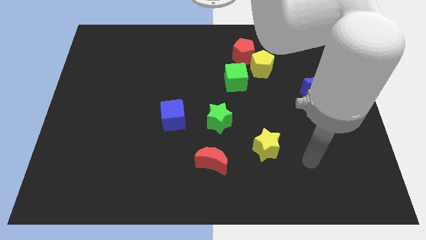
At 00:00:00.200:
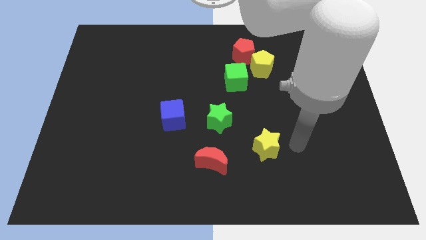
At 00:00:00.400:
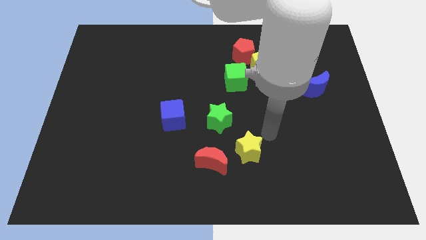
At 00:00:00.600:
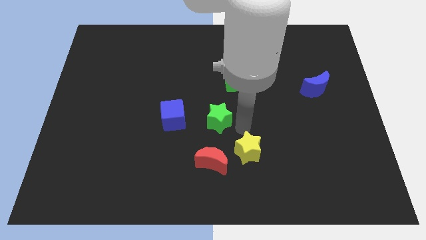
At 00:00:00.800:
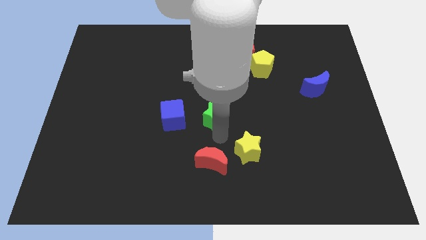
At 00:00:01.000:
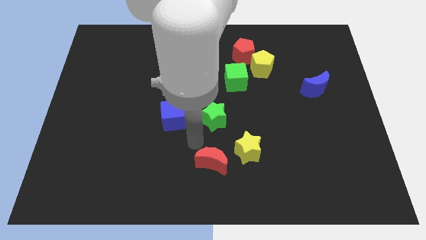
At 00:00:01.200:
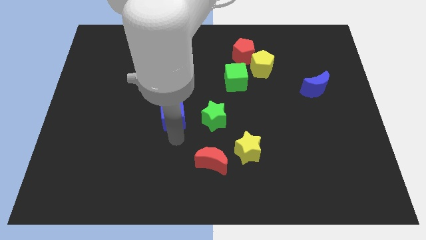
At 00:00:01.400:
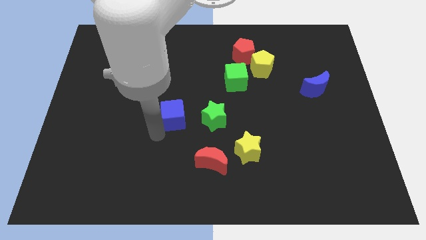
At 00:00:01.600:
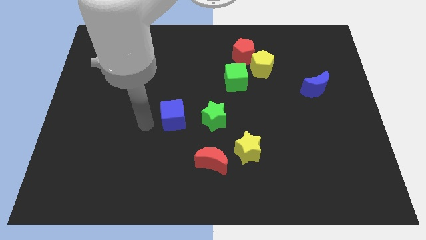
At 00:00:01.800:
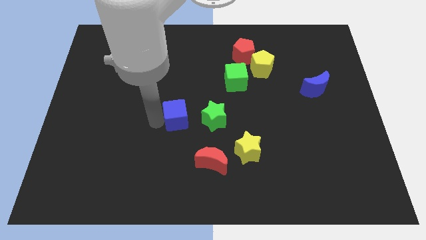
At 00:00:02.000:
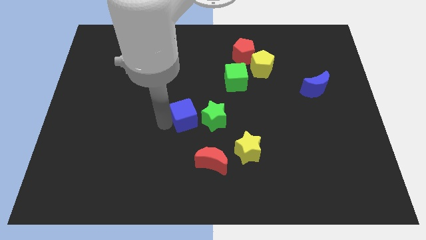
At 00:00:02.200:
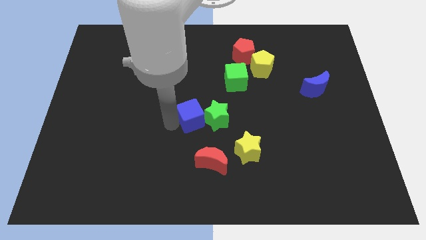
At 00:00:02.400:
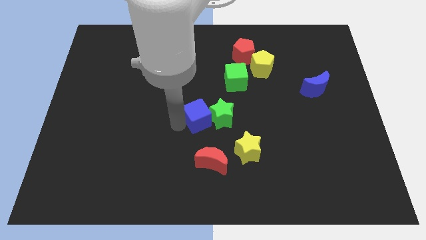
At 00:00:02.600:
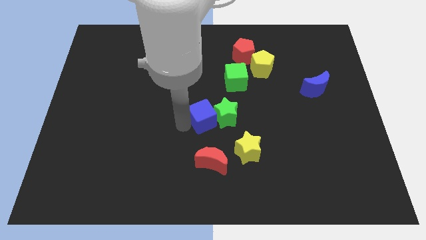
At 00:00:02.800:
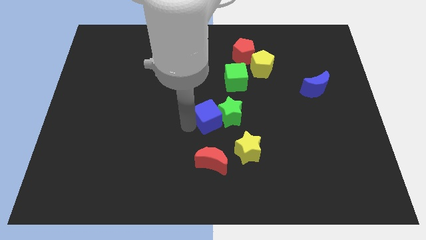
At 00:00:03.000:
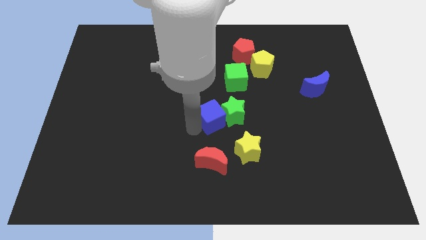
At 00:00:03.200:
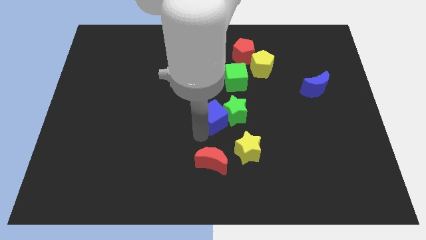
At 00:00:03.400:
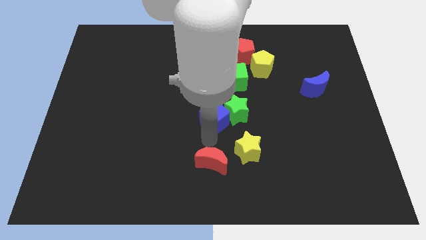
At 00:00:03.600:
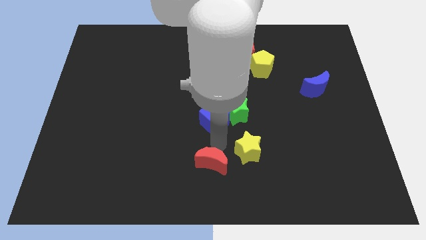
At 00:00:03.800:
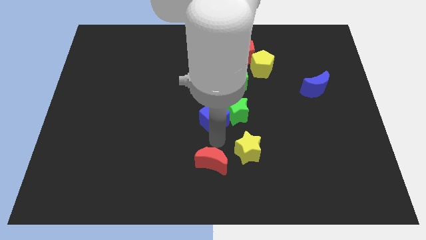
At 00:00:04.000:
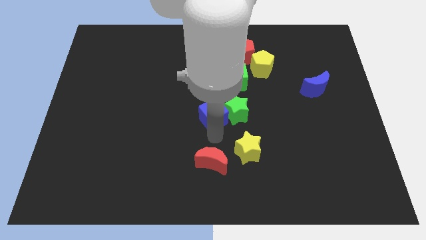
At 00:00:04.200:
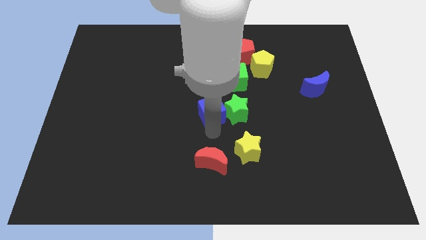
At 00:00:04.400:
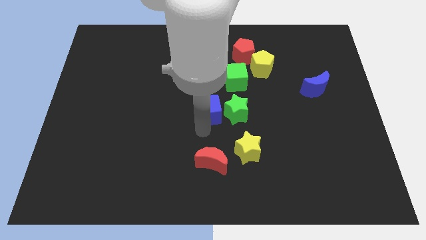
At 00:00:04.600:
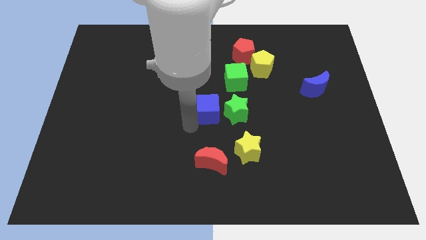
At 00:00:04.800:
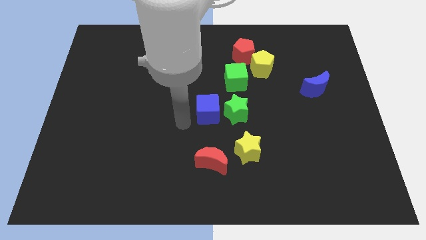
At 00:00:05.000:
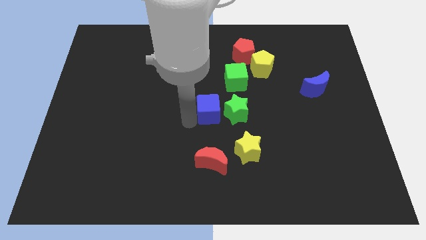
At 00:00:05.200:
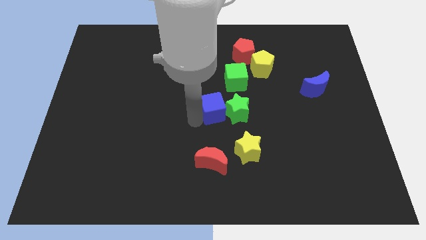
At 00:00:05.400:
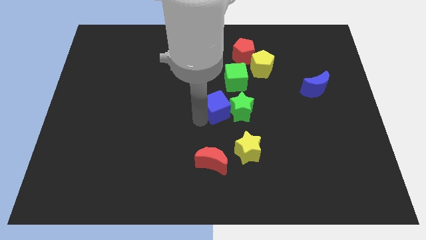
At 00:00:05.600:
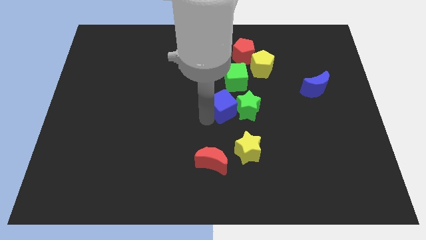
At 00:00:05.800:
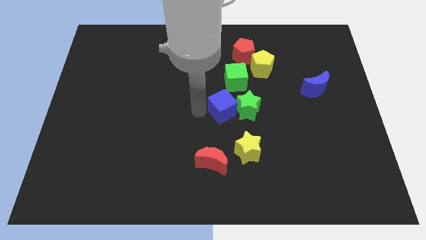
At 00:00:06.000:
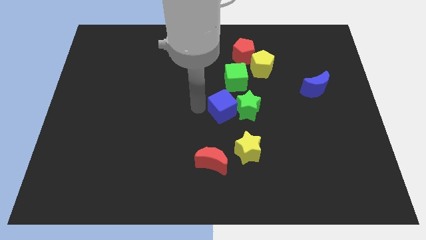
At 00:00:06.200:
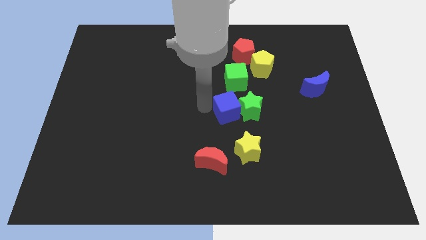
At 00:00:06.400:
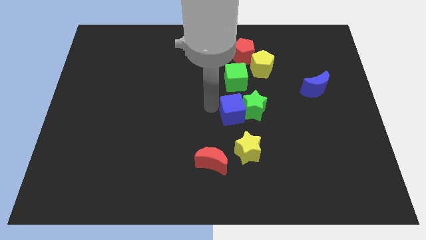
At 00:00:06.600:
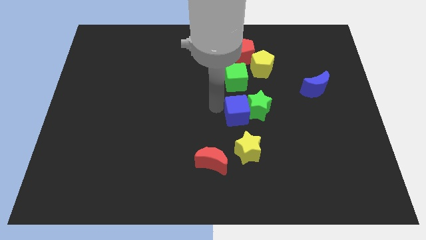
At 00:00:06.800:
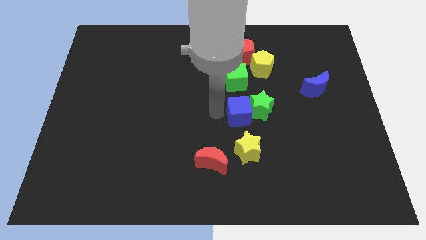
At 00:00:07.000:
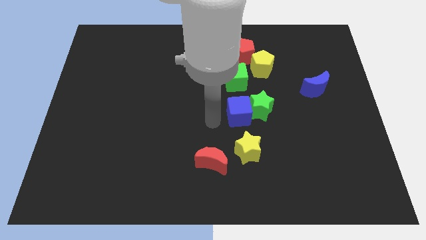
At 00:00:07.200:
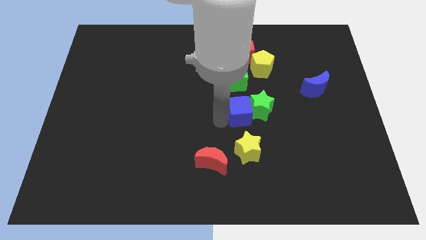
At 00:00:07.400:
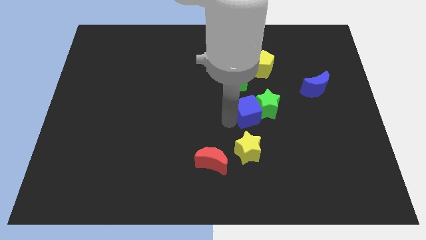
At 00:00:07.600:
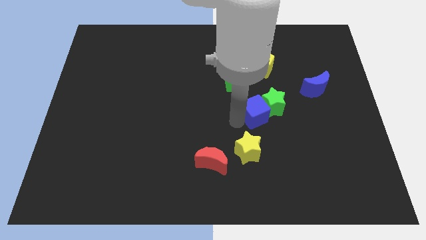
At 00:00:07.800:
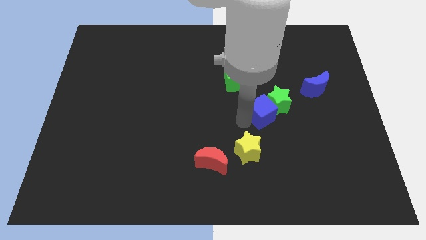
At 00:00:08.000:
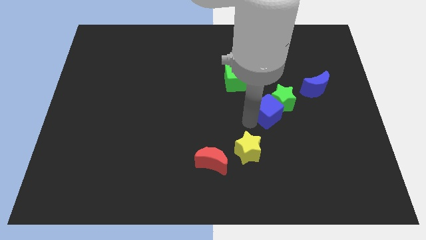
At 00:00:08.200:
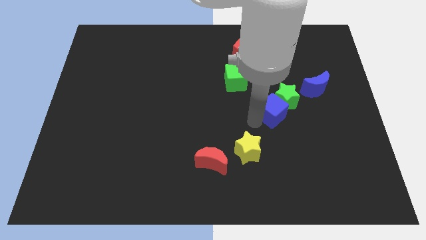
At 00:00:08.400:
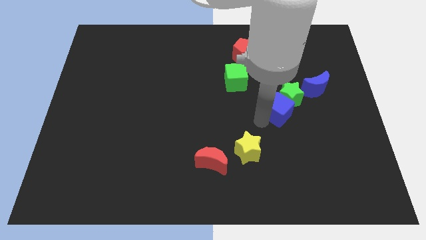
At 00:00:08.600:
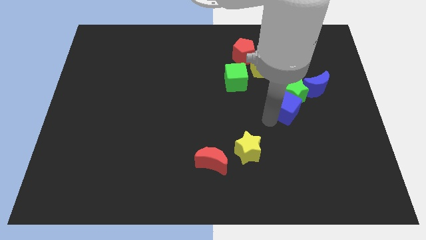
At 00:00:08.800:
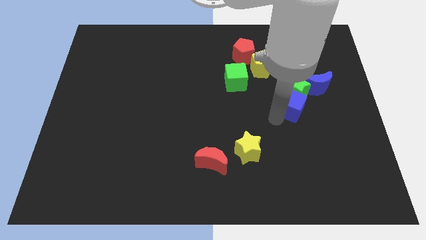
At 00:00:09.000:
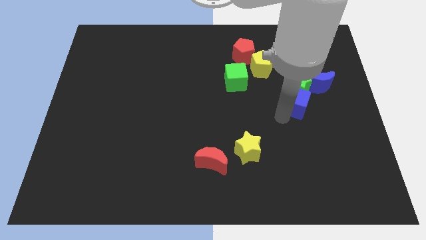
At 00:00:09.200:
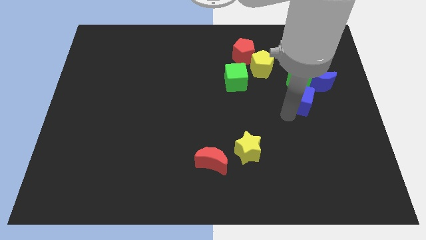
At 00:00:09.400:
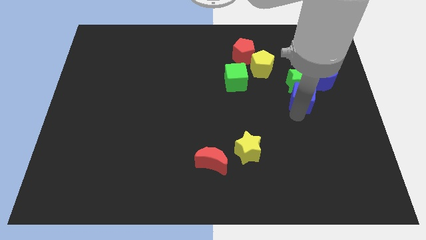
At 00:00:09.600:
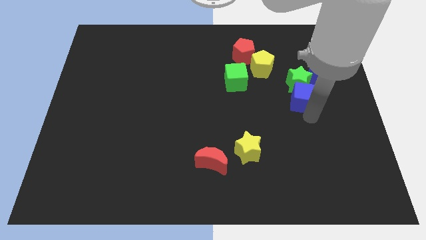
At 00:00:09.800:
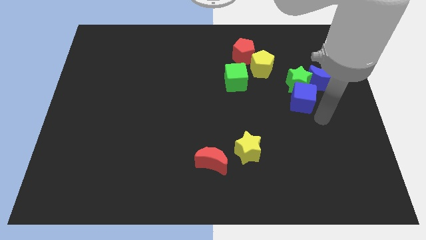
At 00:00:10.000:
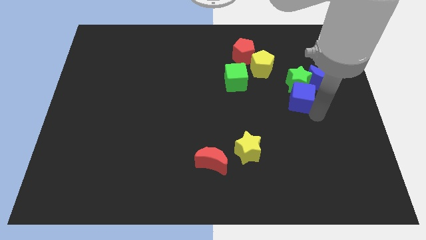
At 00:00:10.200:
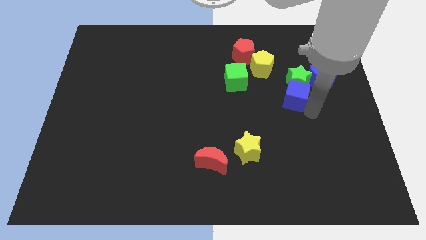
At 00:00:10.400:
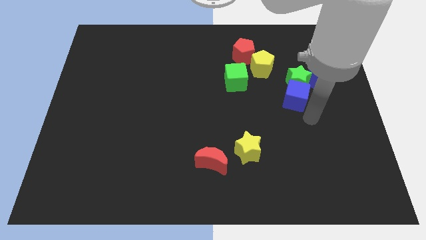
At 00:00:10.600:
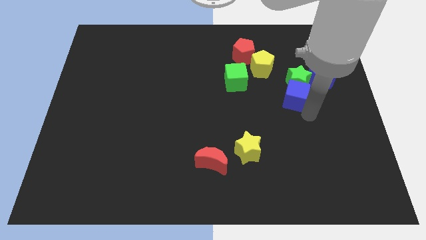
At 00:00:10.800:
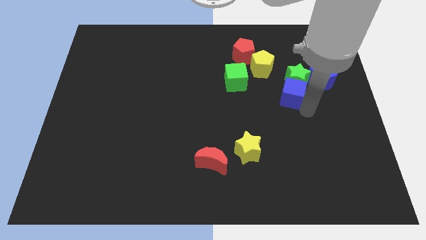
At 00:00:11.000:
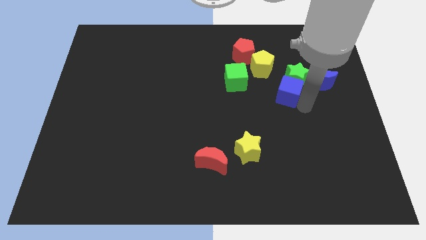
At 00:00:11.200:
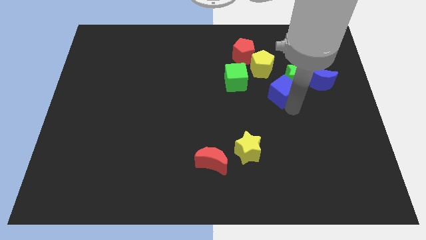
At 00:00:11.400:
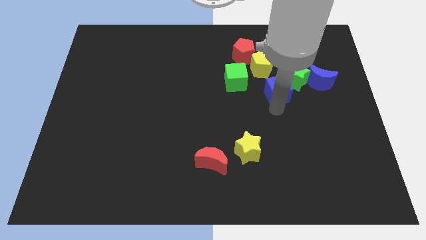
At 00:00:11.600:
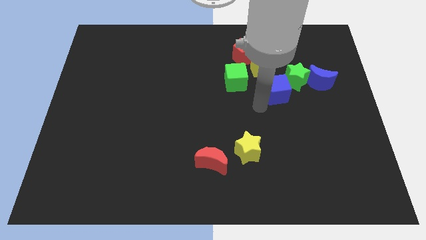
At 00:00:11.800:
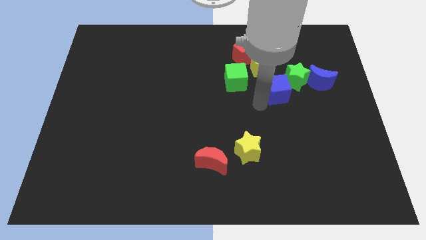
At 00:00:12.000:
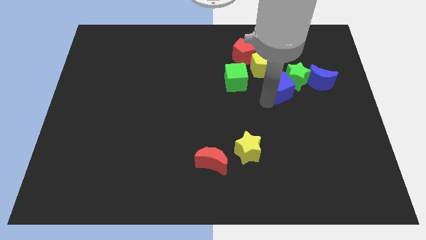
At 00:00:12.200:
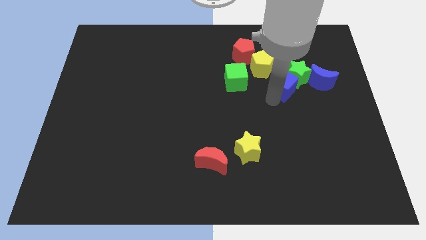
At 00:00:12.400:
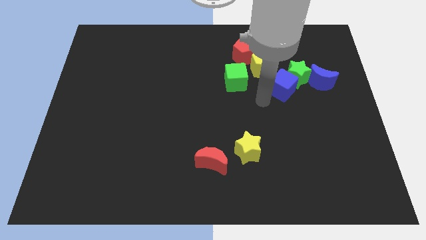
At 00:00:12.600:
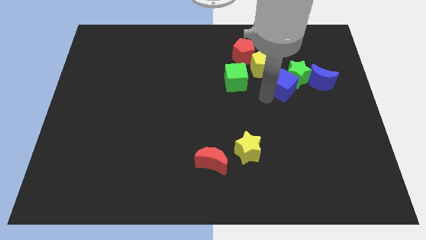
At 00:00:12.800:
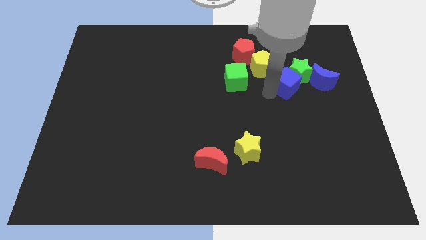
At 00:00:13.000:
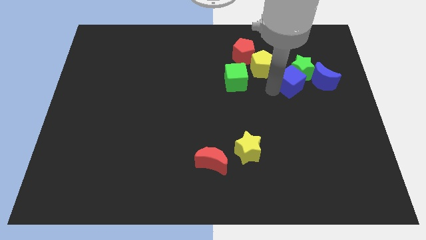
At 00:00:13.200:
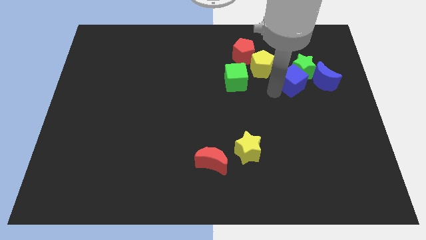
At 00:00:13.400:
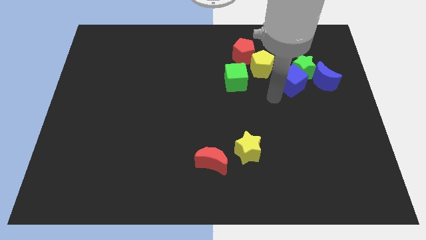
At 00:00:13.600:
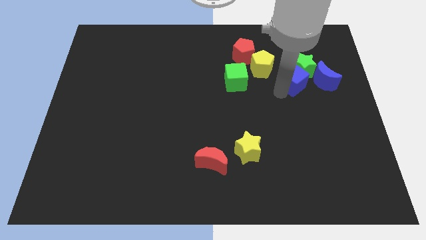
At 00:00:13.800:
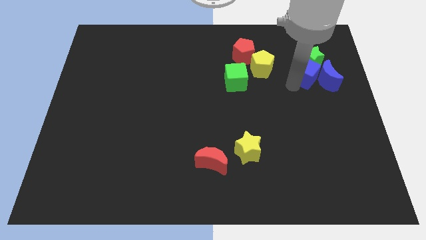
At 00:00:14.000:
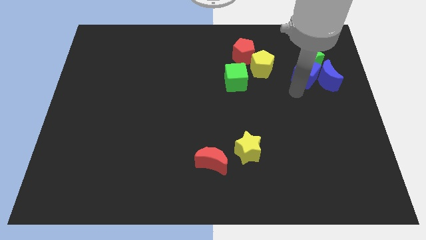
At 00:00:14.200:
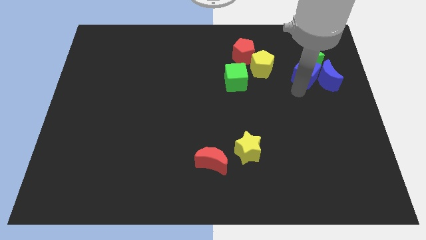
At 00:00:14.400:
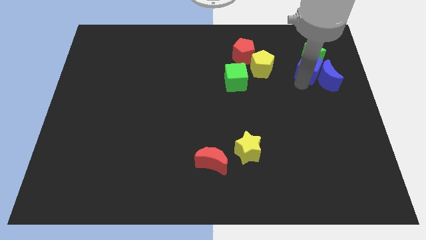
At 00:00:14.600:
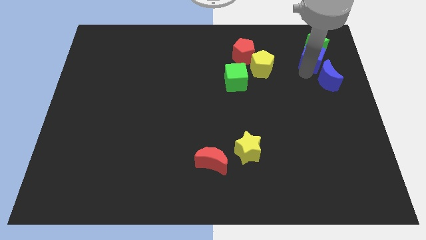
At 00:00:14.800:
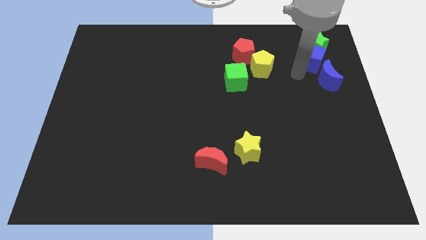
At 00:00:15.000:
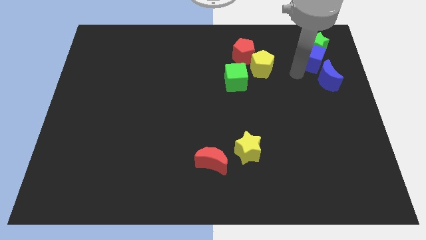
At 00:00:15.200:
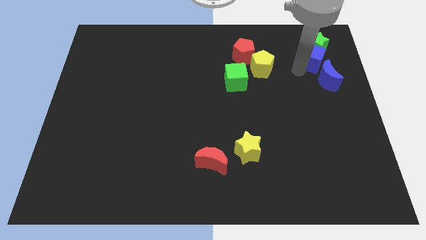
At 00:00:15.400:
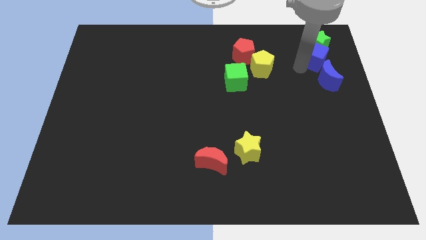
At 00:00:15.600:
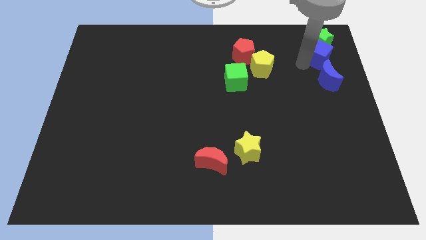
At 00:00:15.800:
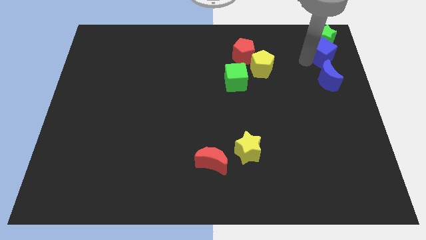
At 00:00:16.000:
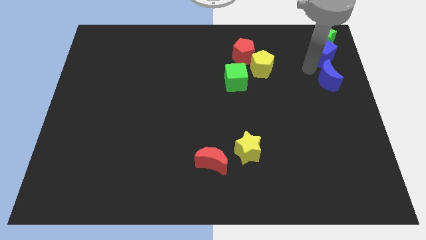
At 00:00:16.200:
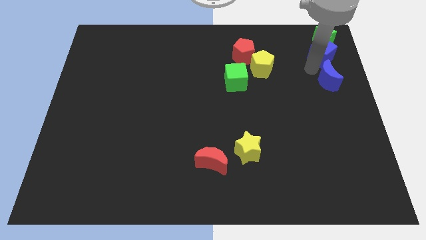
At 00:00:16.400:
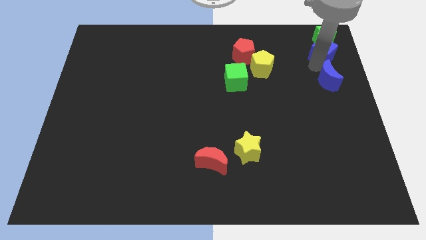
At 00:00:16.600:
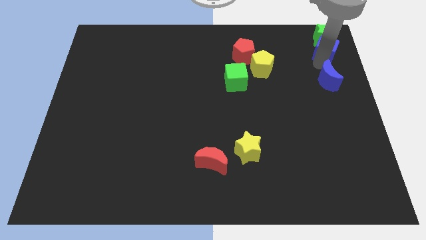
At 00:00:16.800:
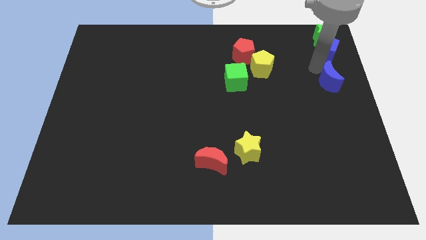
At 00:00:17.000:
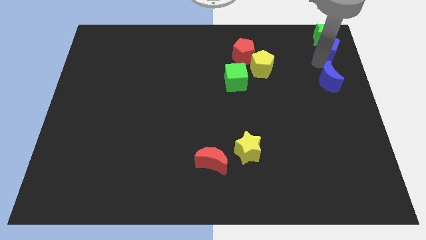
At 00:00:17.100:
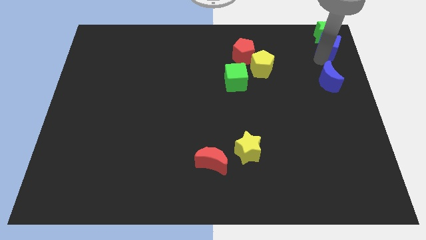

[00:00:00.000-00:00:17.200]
move the blue cube to the top right
